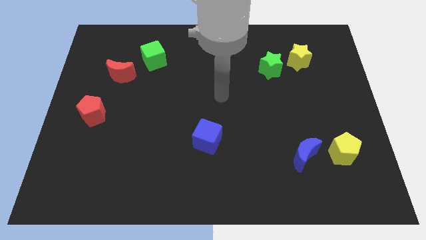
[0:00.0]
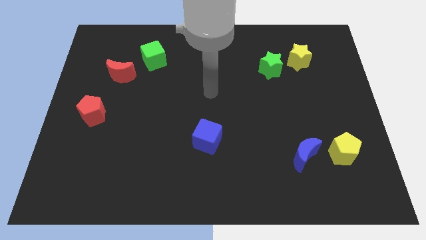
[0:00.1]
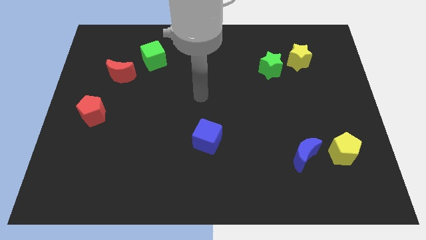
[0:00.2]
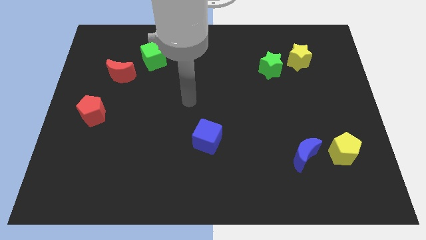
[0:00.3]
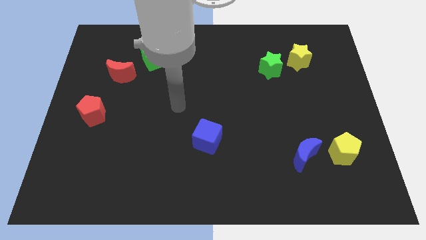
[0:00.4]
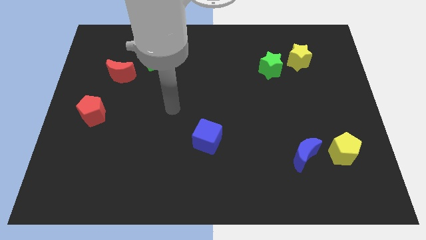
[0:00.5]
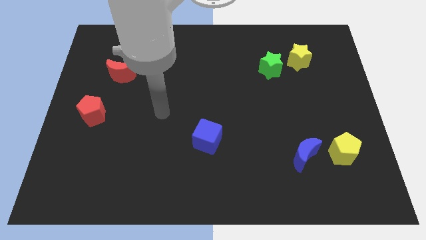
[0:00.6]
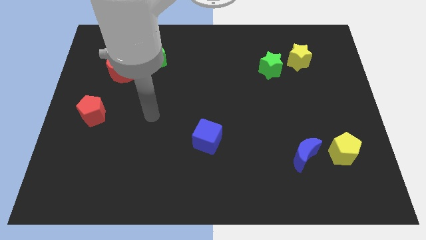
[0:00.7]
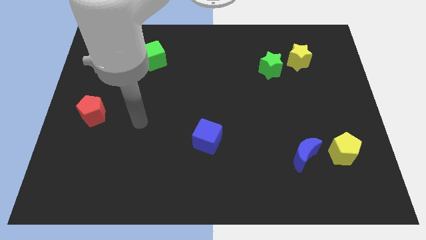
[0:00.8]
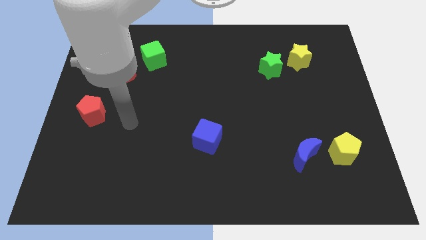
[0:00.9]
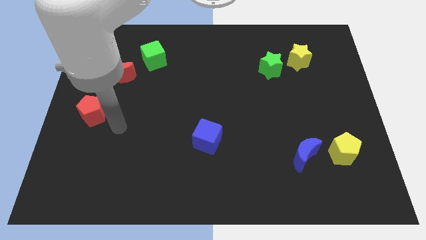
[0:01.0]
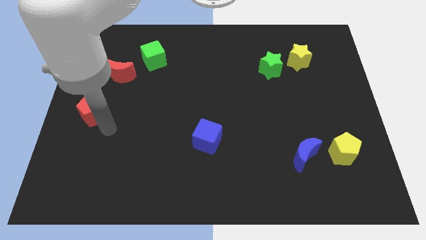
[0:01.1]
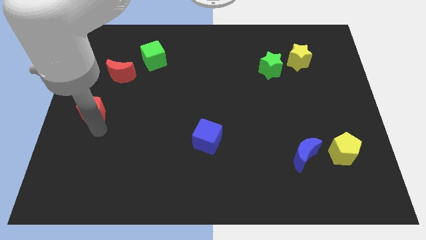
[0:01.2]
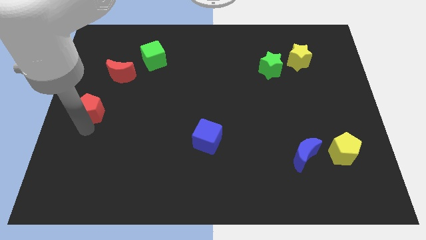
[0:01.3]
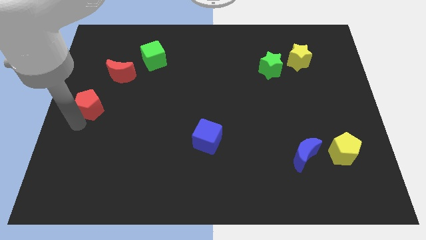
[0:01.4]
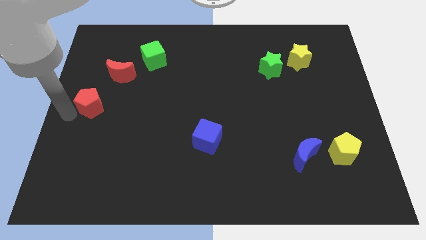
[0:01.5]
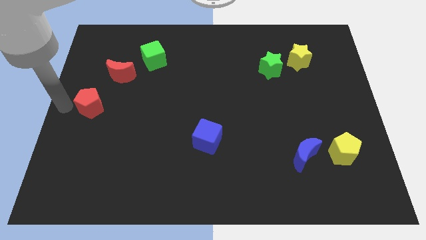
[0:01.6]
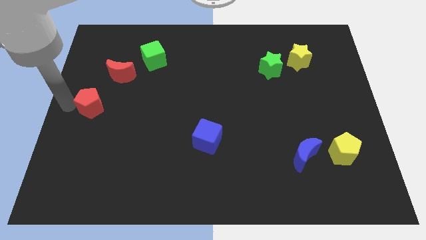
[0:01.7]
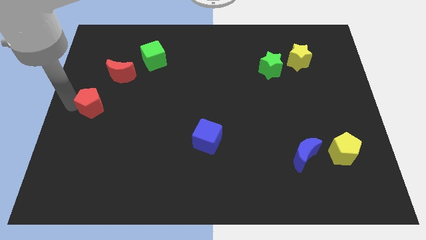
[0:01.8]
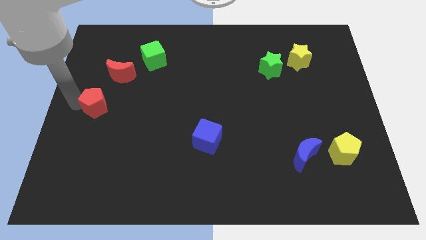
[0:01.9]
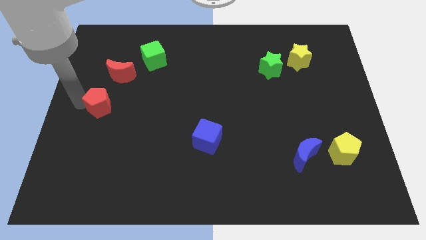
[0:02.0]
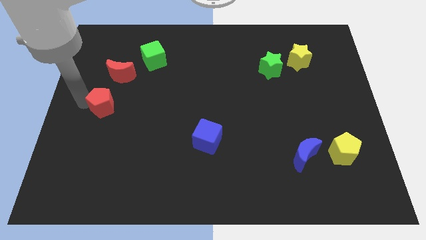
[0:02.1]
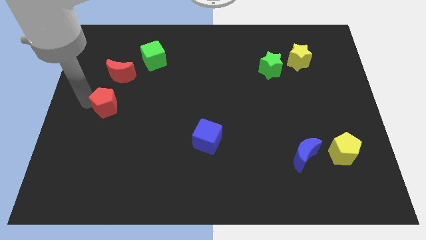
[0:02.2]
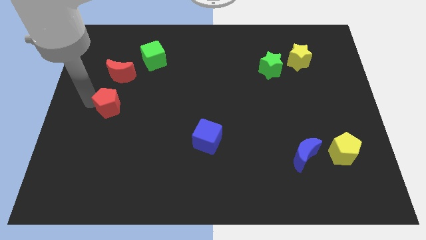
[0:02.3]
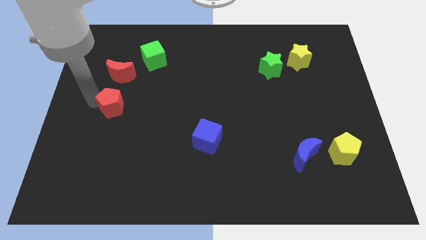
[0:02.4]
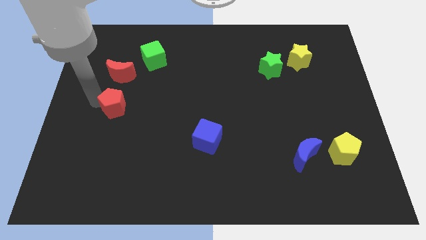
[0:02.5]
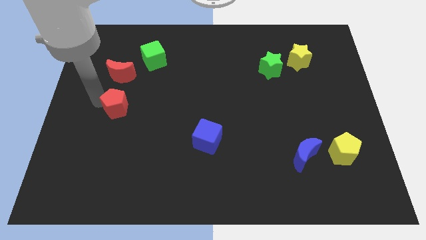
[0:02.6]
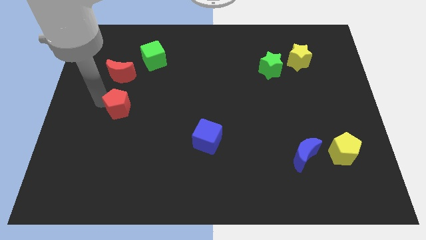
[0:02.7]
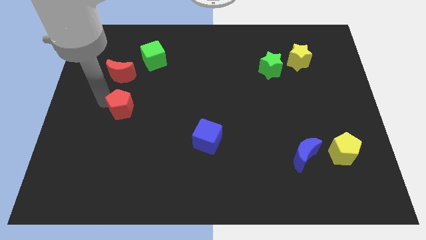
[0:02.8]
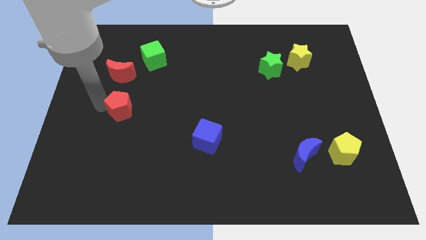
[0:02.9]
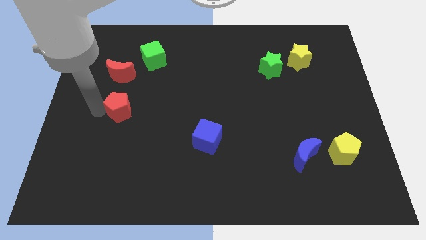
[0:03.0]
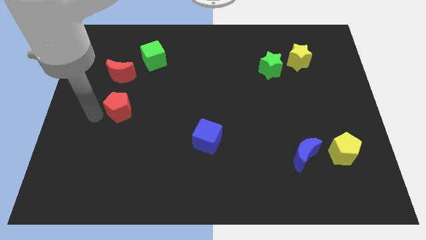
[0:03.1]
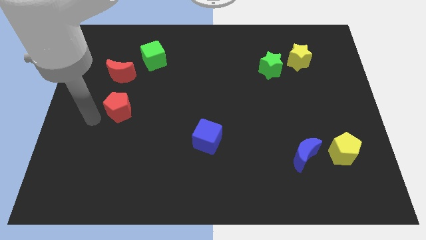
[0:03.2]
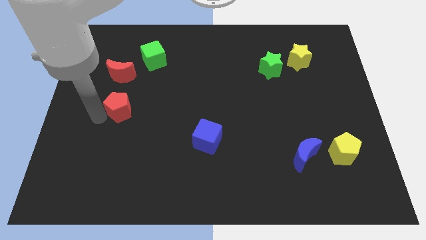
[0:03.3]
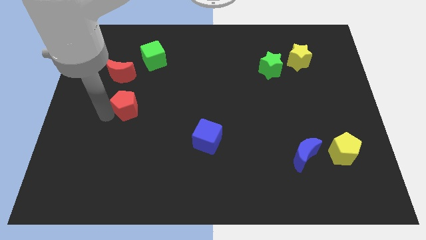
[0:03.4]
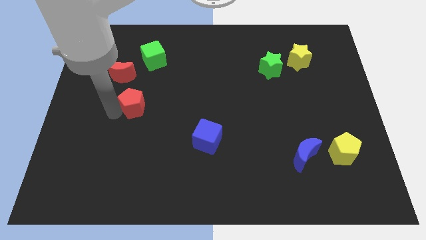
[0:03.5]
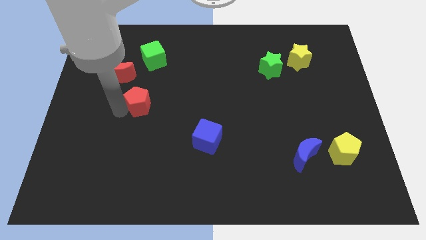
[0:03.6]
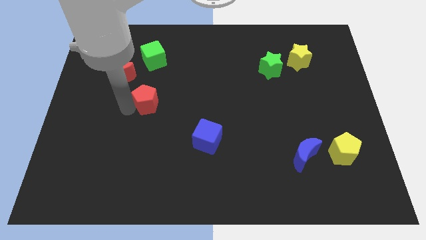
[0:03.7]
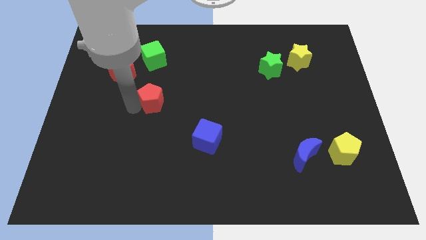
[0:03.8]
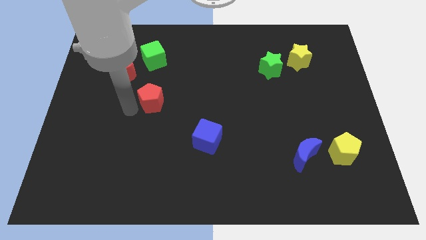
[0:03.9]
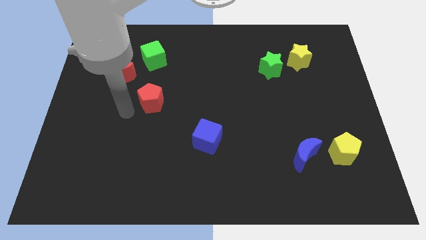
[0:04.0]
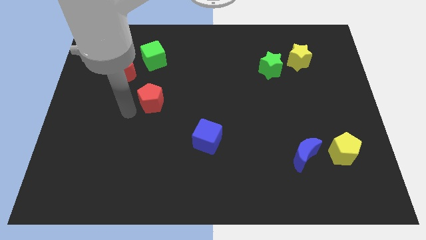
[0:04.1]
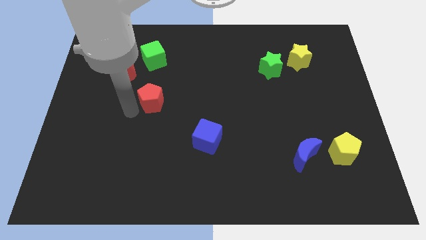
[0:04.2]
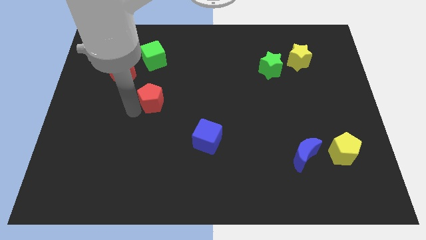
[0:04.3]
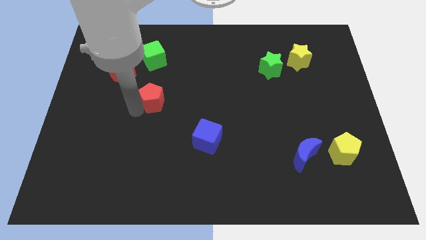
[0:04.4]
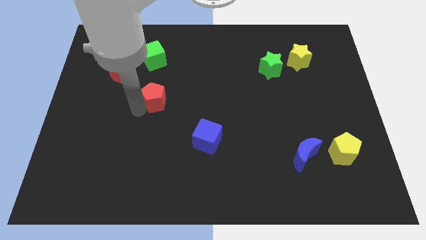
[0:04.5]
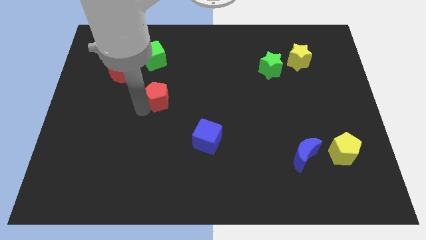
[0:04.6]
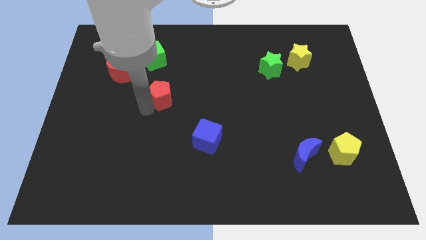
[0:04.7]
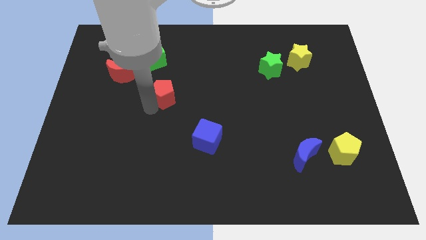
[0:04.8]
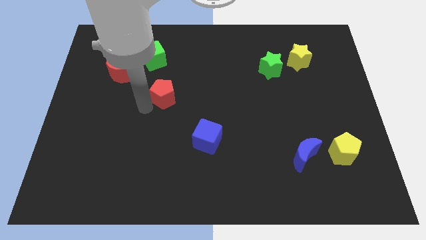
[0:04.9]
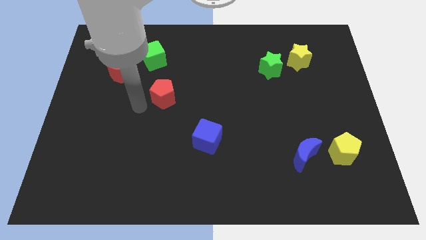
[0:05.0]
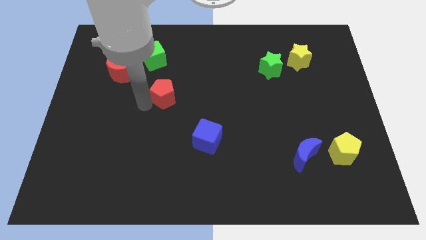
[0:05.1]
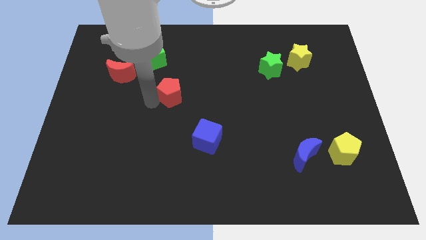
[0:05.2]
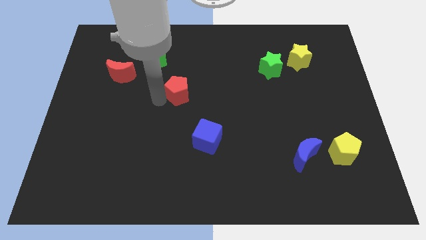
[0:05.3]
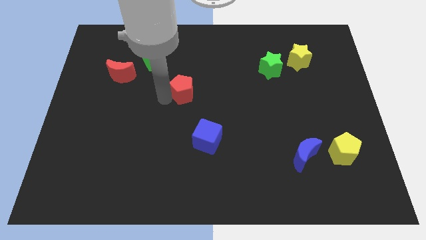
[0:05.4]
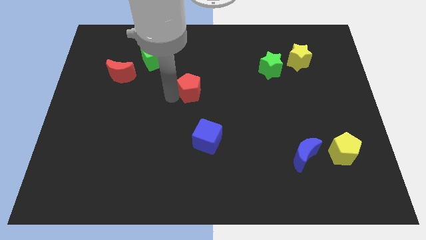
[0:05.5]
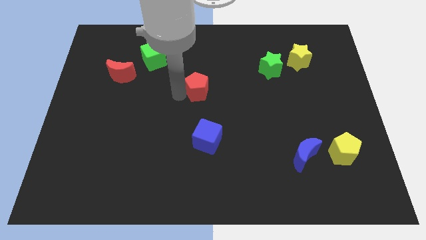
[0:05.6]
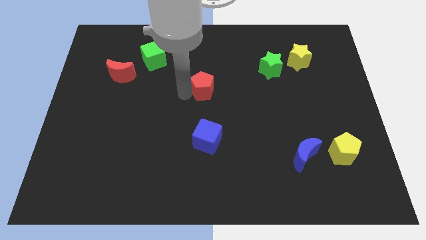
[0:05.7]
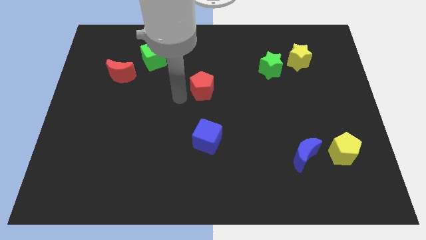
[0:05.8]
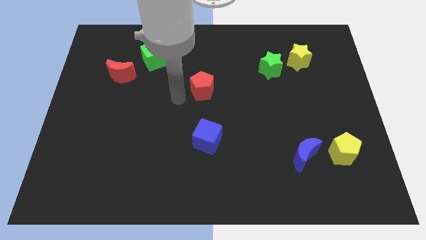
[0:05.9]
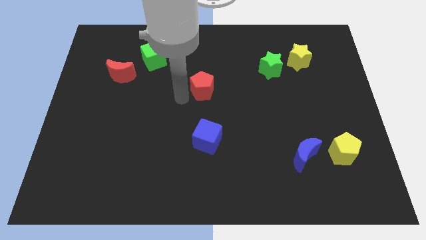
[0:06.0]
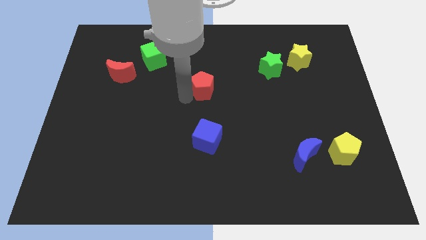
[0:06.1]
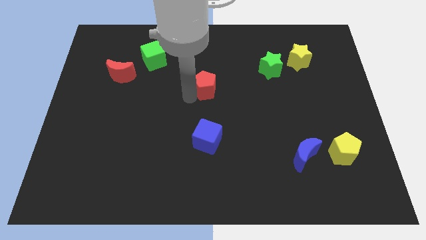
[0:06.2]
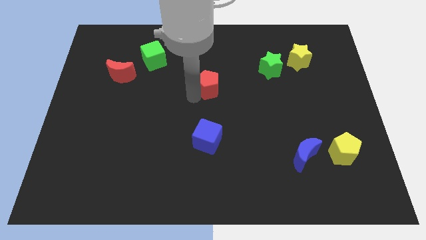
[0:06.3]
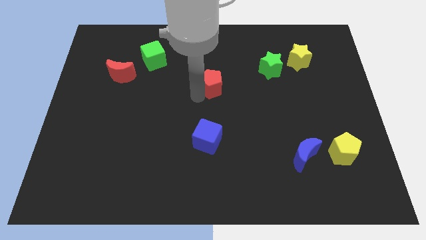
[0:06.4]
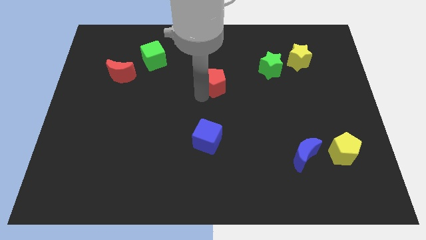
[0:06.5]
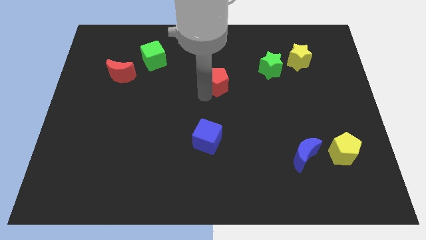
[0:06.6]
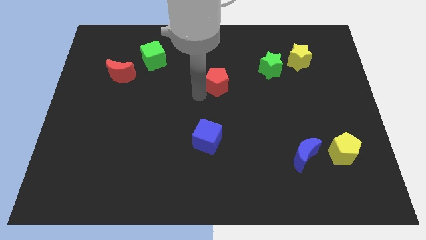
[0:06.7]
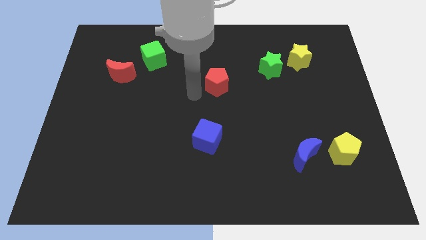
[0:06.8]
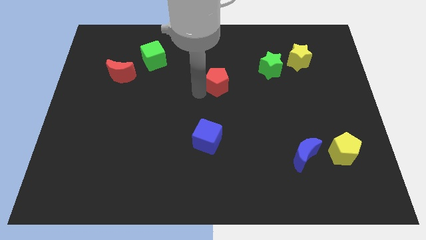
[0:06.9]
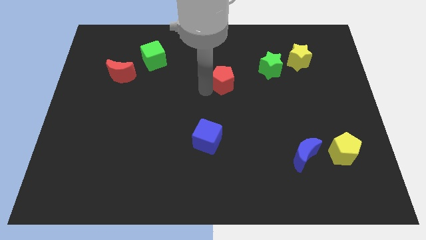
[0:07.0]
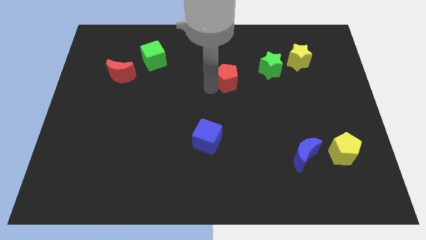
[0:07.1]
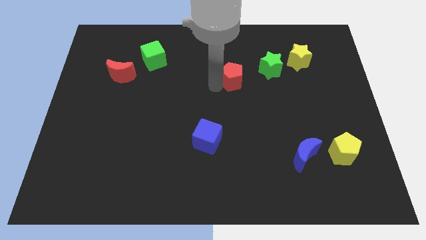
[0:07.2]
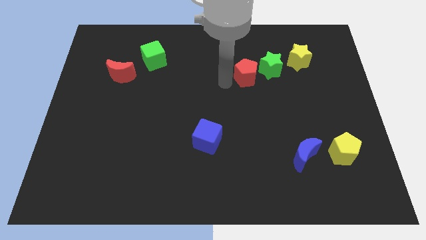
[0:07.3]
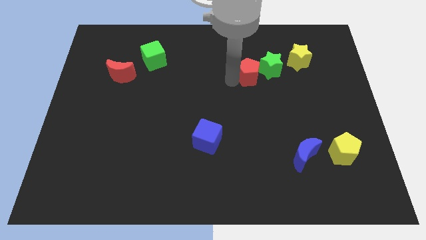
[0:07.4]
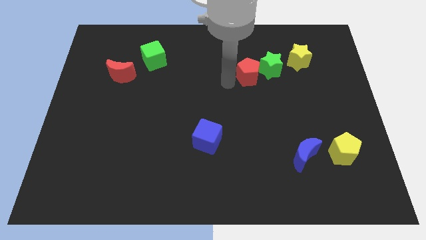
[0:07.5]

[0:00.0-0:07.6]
push the red pentagon close to the green star
